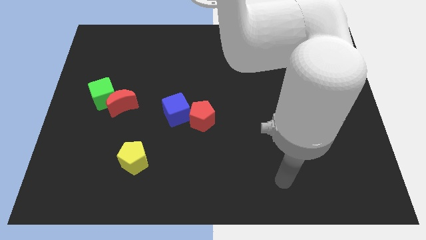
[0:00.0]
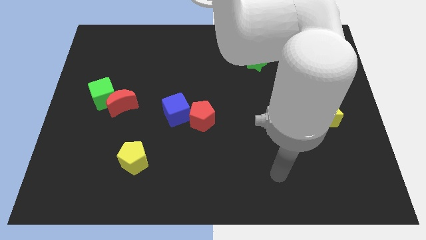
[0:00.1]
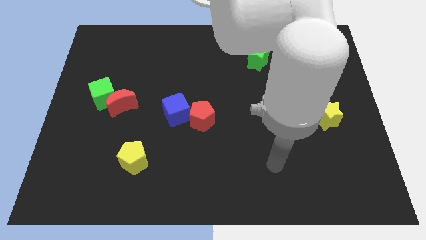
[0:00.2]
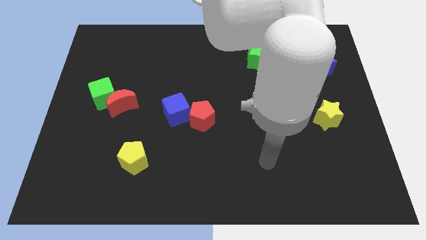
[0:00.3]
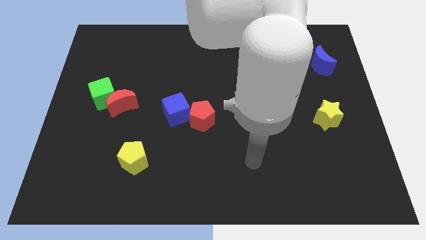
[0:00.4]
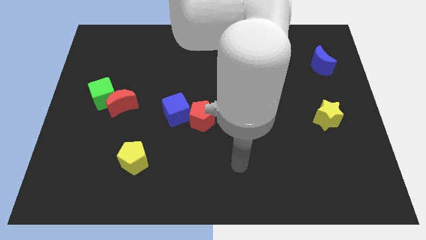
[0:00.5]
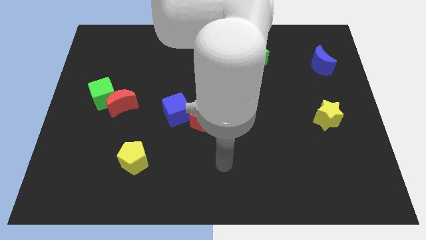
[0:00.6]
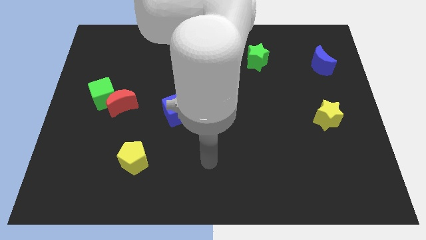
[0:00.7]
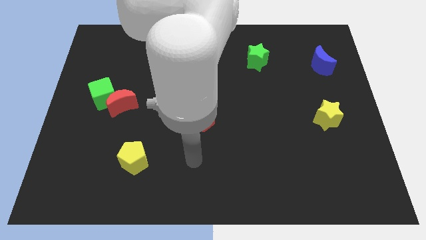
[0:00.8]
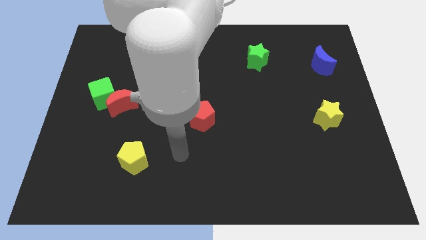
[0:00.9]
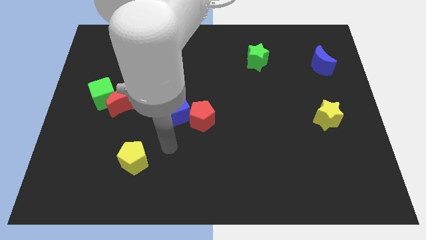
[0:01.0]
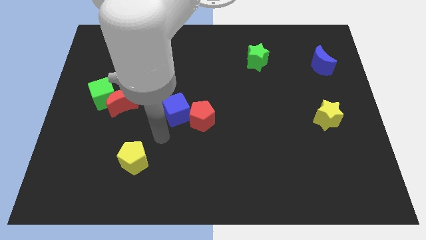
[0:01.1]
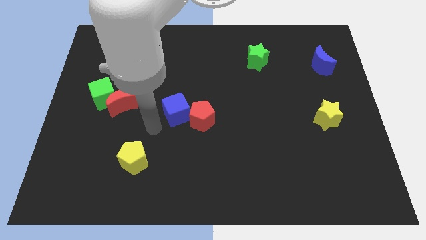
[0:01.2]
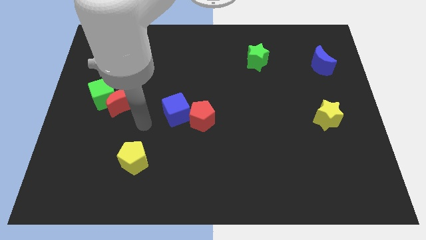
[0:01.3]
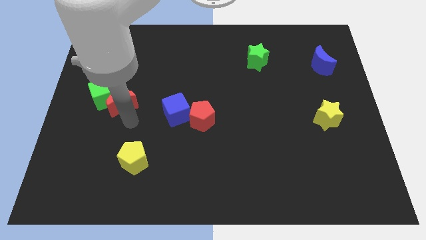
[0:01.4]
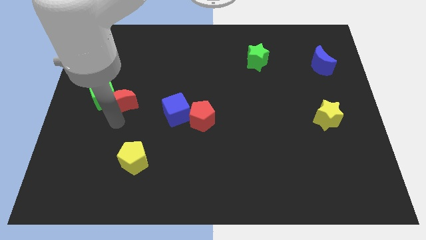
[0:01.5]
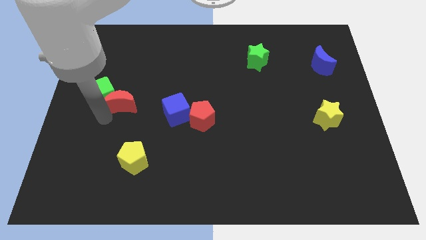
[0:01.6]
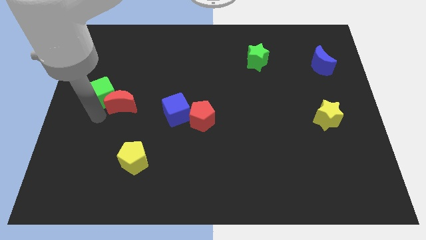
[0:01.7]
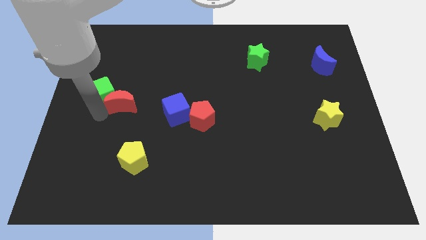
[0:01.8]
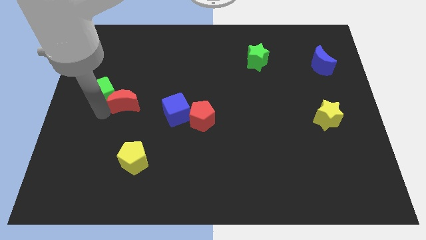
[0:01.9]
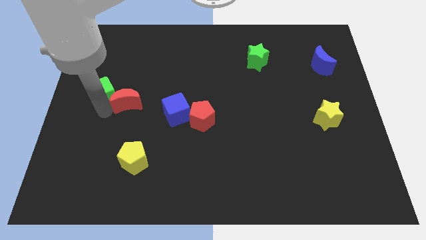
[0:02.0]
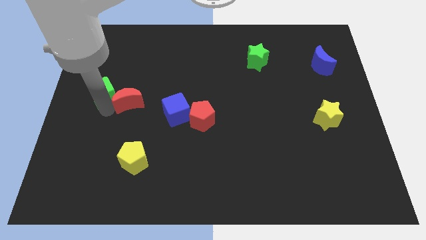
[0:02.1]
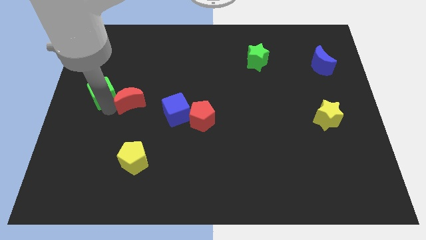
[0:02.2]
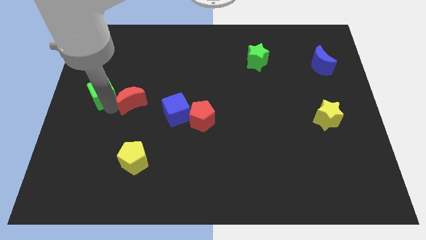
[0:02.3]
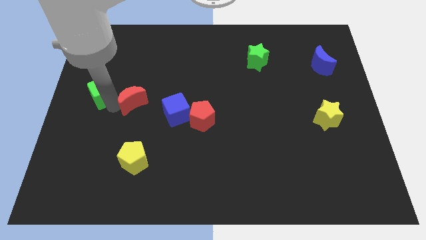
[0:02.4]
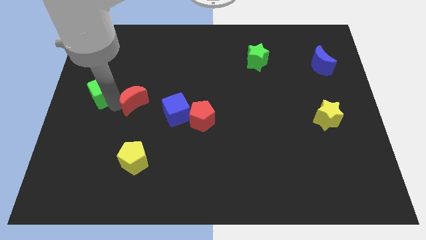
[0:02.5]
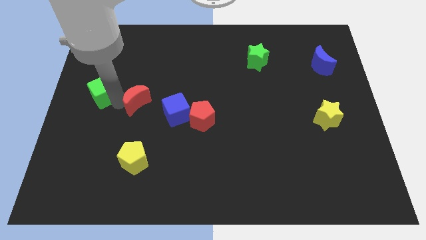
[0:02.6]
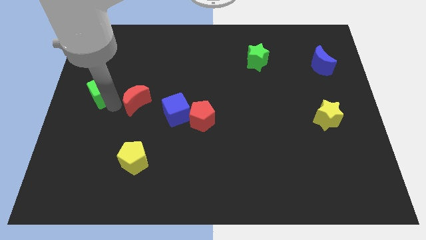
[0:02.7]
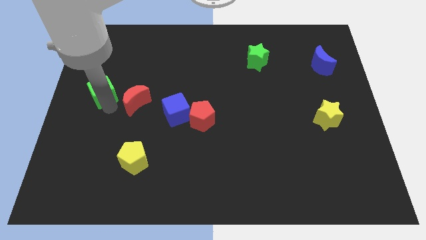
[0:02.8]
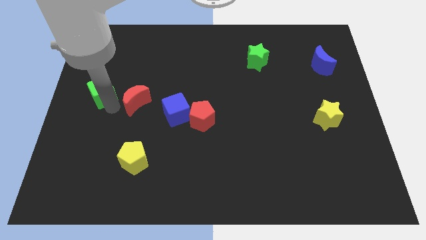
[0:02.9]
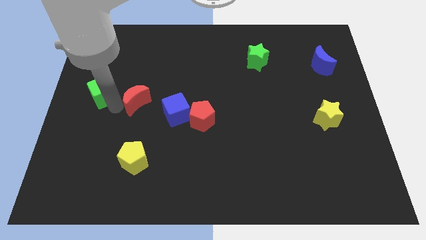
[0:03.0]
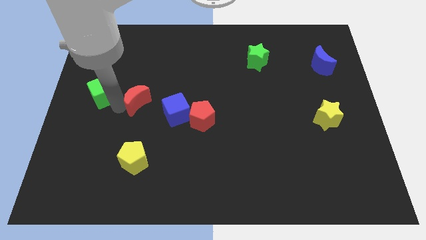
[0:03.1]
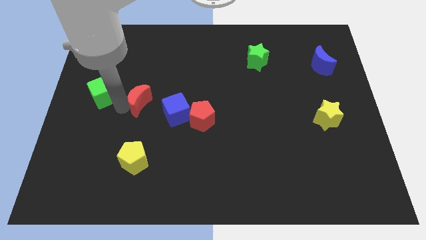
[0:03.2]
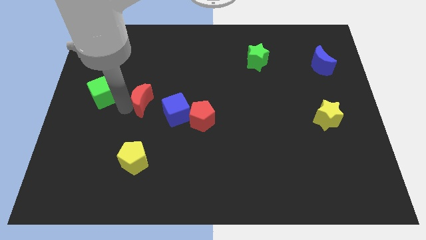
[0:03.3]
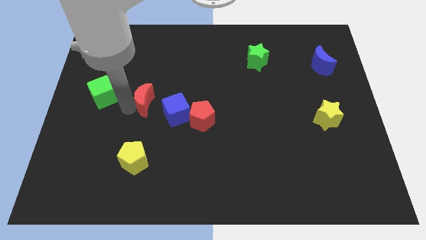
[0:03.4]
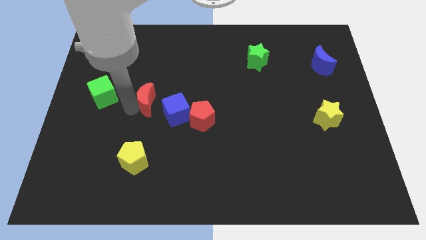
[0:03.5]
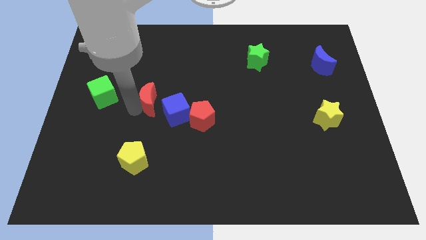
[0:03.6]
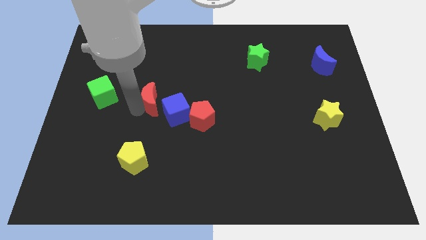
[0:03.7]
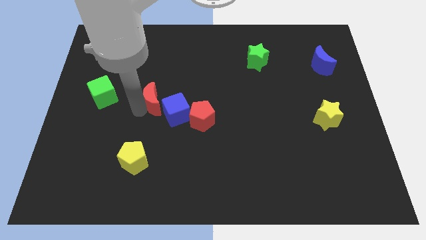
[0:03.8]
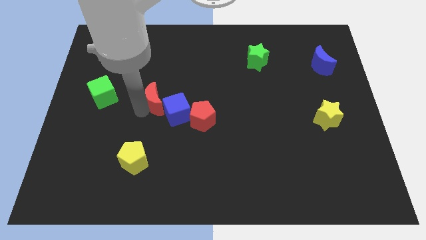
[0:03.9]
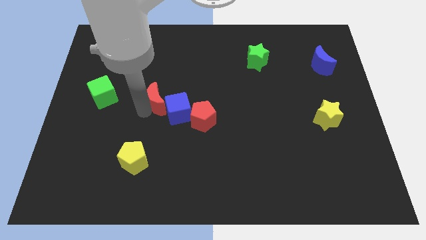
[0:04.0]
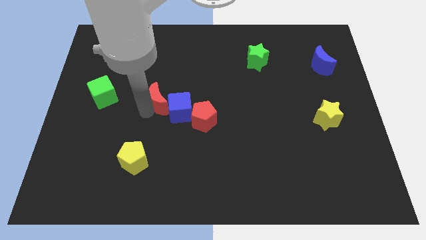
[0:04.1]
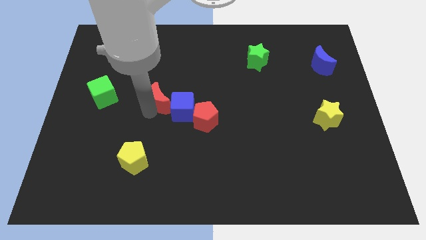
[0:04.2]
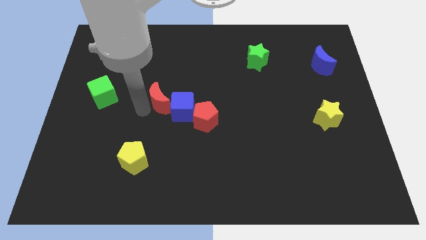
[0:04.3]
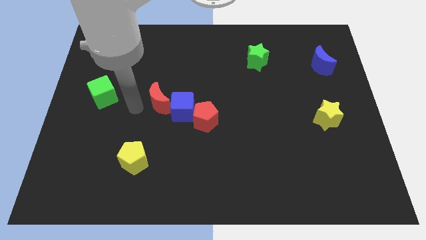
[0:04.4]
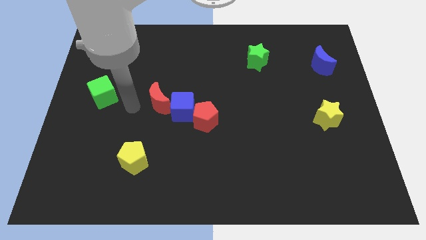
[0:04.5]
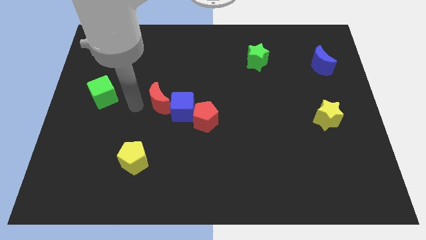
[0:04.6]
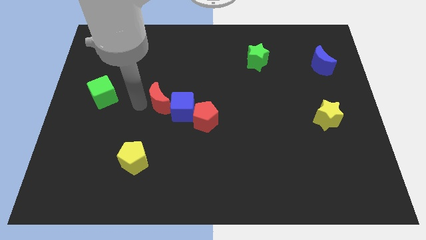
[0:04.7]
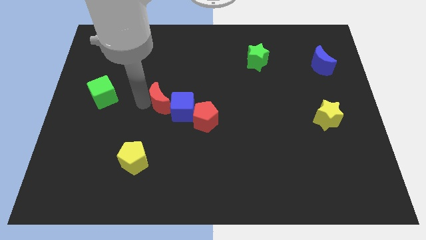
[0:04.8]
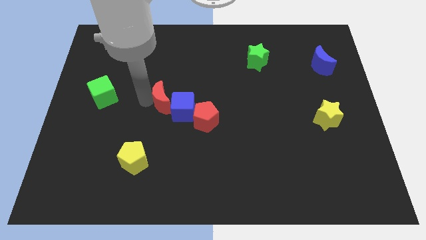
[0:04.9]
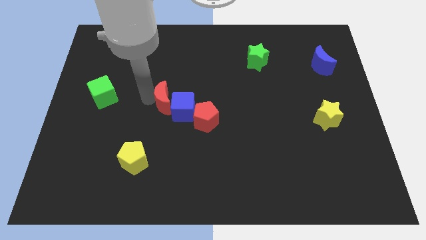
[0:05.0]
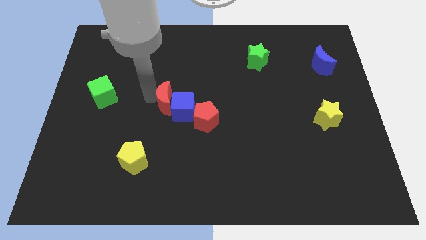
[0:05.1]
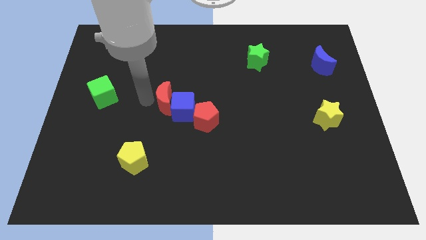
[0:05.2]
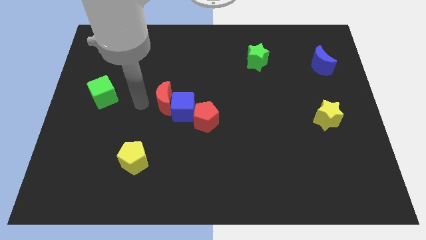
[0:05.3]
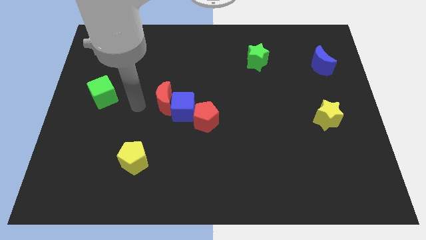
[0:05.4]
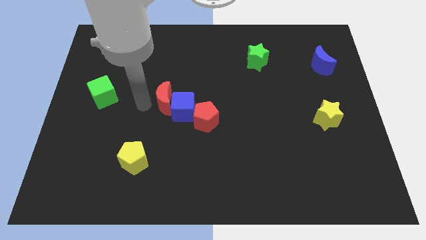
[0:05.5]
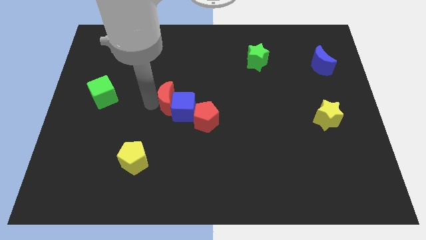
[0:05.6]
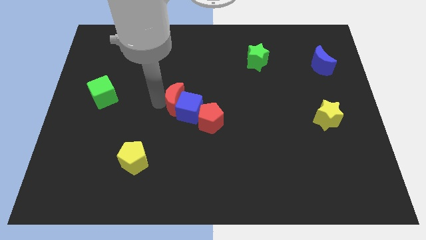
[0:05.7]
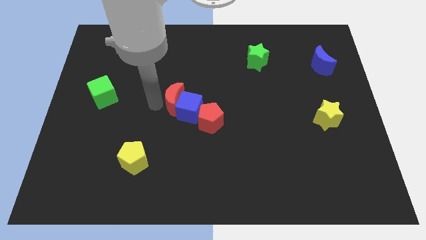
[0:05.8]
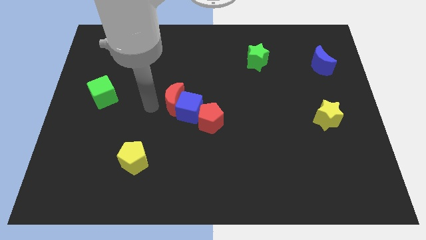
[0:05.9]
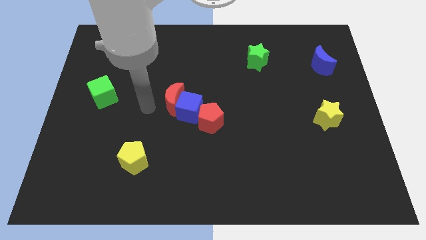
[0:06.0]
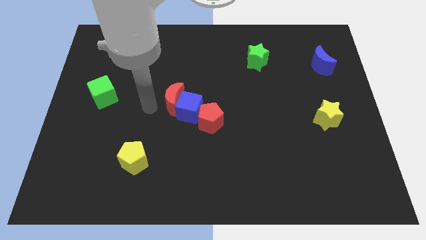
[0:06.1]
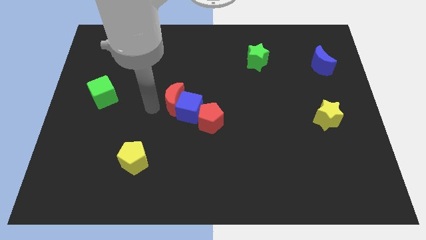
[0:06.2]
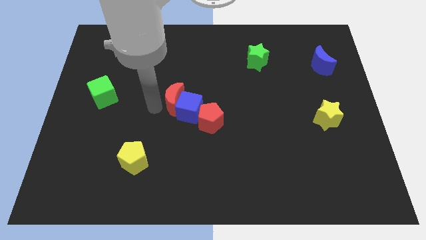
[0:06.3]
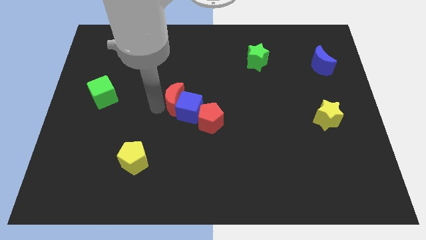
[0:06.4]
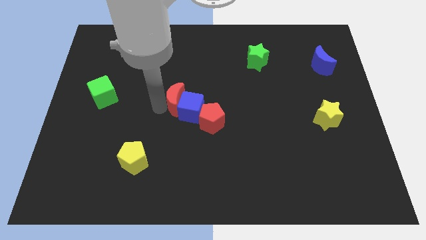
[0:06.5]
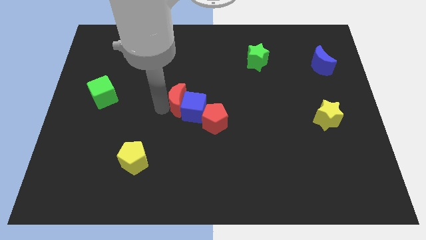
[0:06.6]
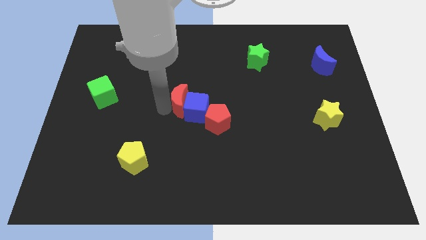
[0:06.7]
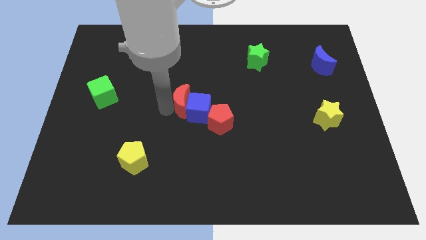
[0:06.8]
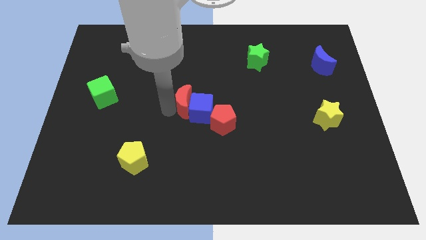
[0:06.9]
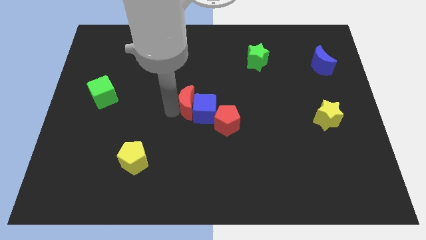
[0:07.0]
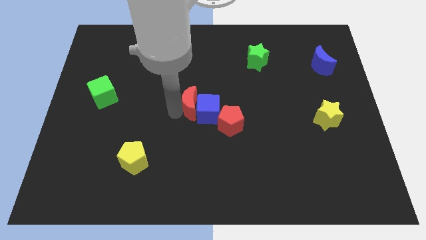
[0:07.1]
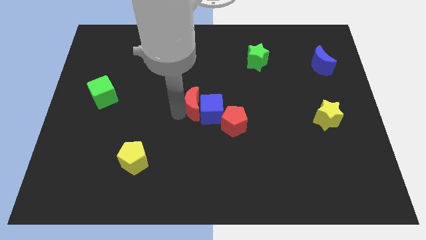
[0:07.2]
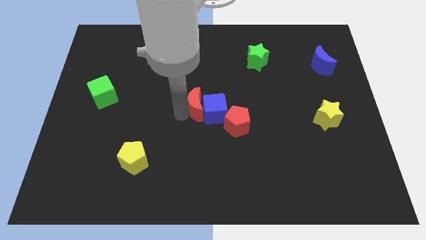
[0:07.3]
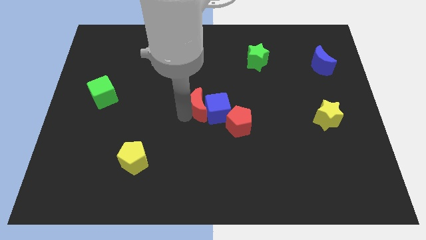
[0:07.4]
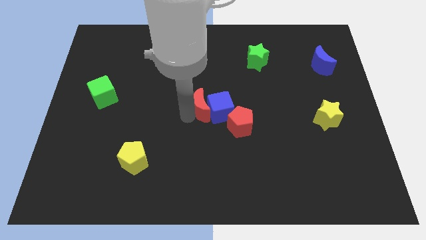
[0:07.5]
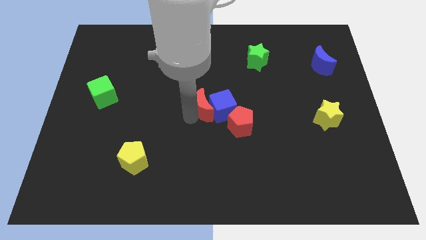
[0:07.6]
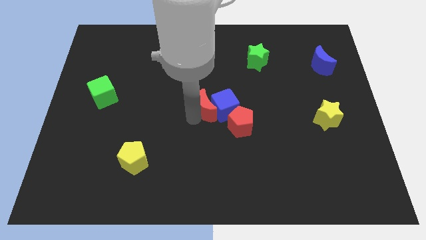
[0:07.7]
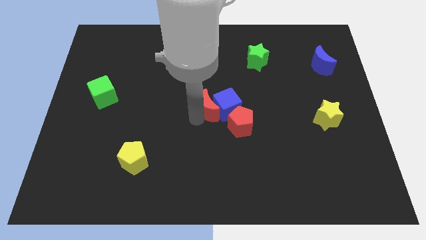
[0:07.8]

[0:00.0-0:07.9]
move the red moon to the right

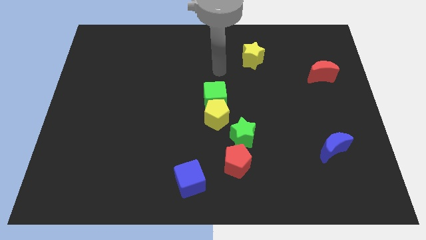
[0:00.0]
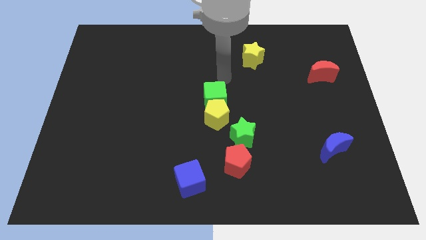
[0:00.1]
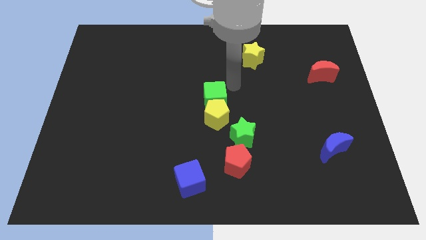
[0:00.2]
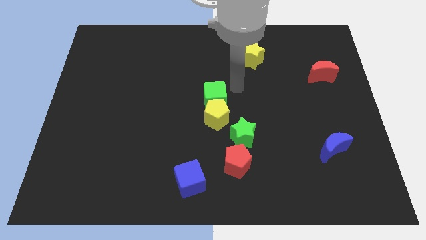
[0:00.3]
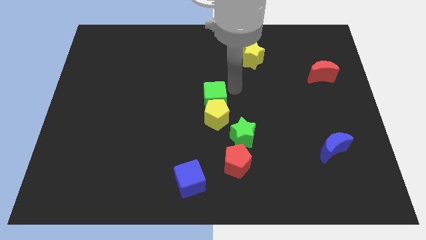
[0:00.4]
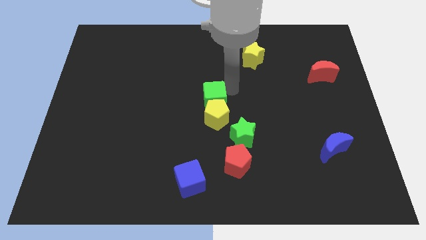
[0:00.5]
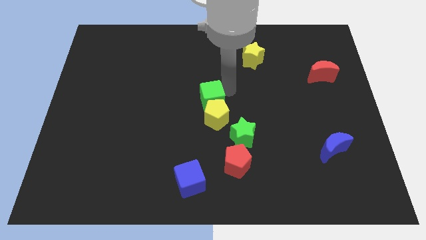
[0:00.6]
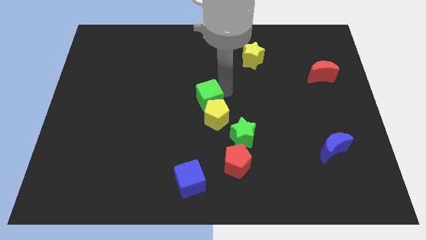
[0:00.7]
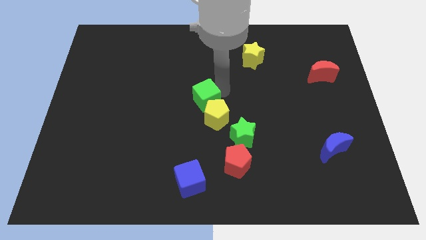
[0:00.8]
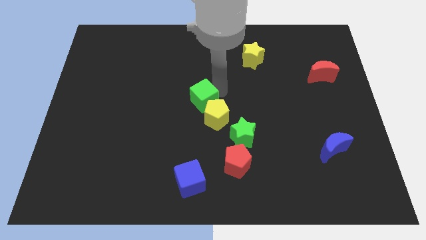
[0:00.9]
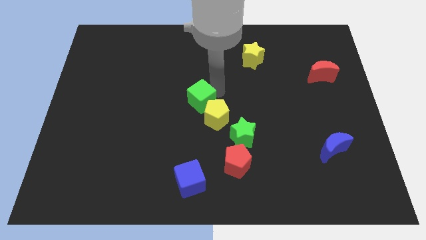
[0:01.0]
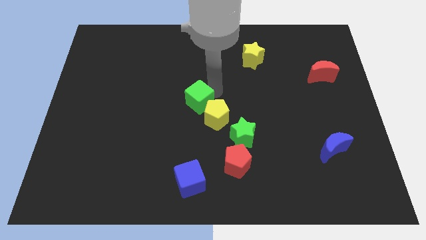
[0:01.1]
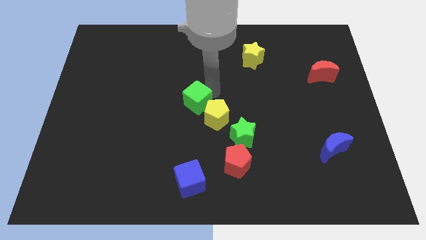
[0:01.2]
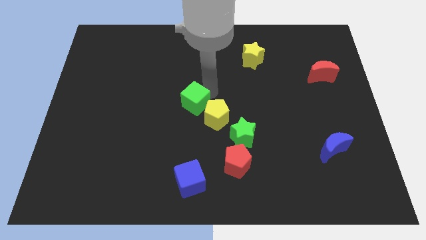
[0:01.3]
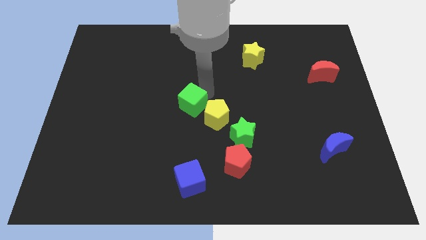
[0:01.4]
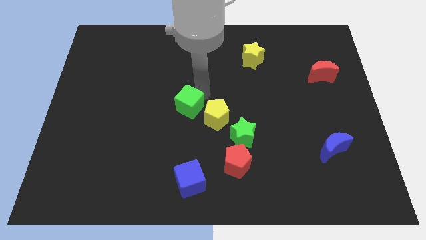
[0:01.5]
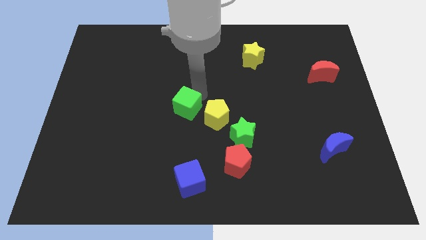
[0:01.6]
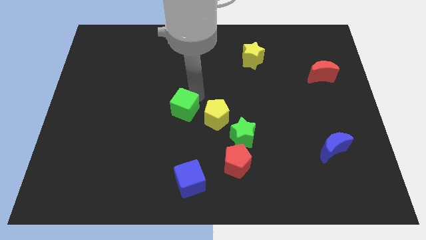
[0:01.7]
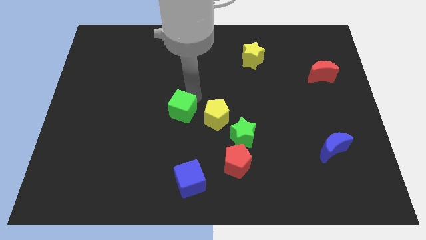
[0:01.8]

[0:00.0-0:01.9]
slide the green cube a bit diagonally down and left
